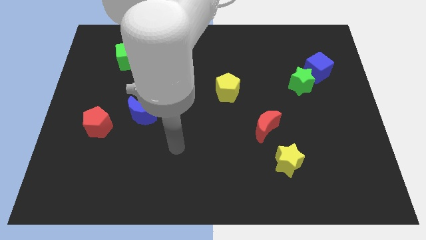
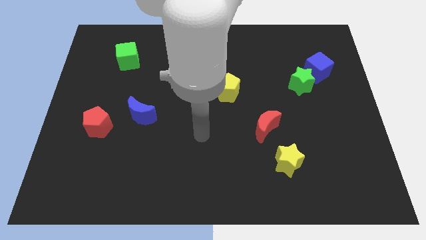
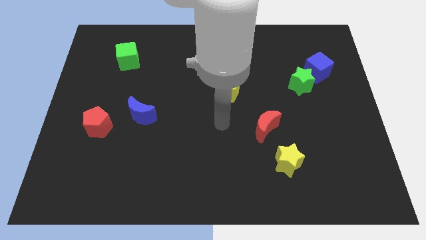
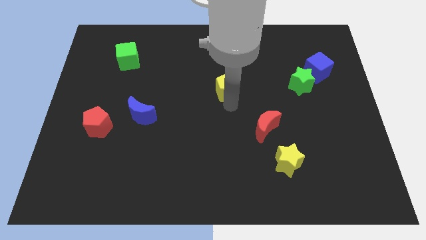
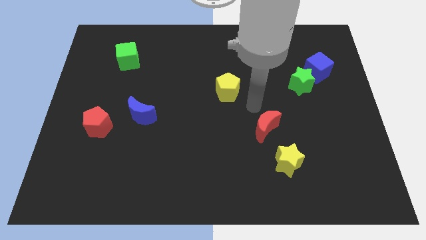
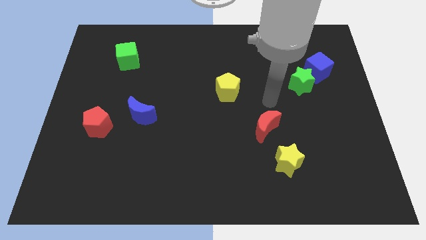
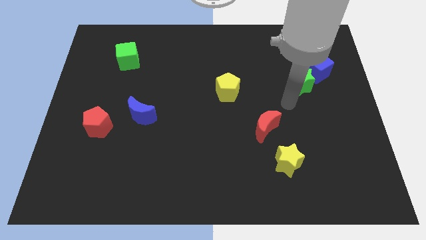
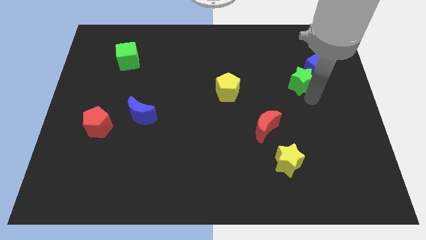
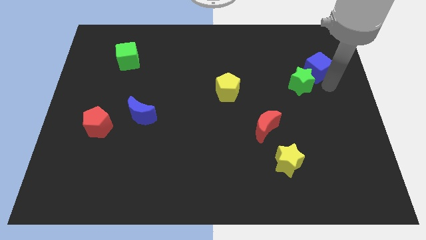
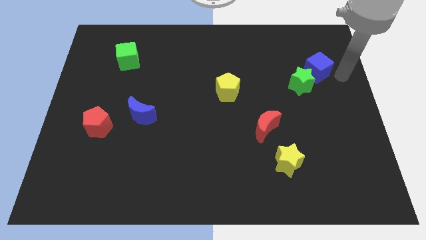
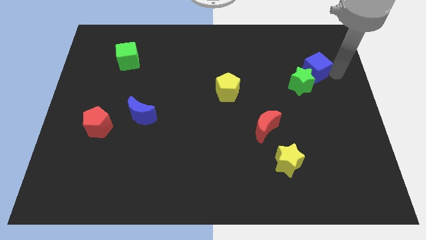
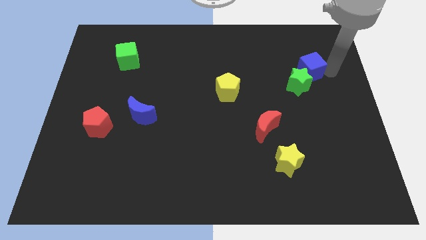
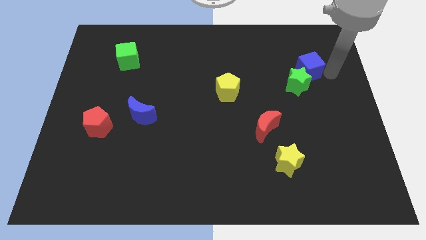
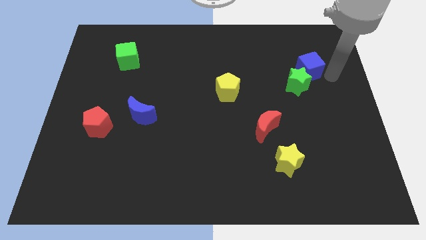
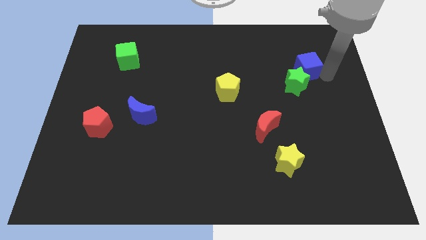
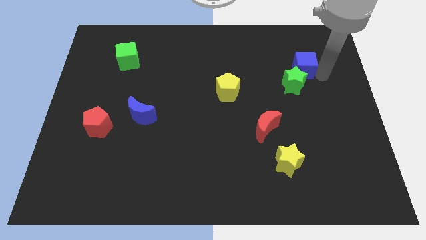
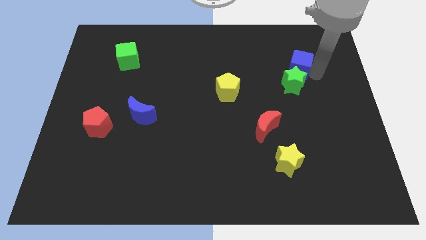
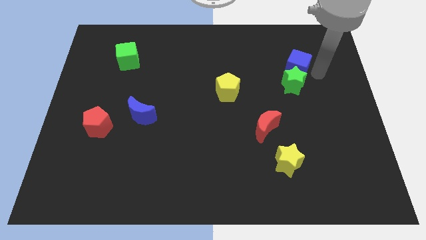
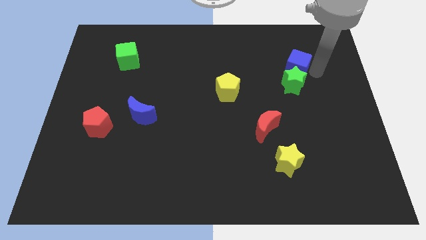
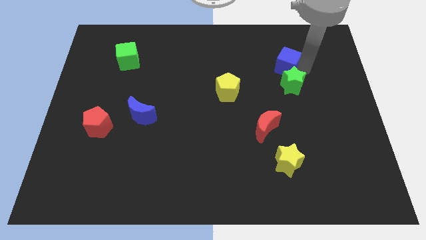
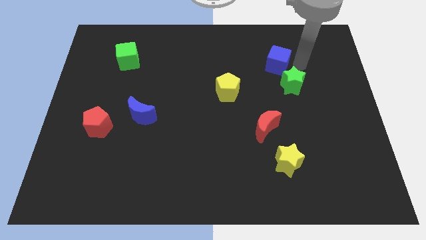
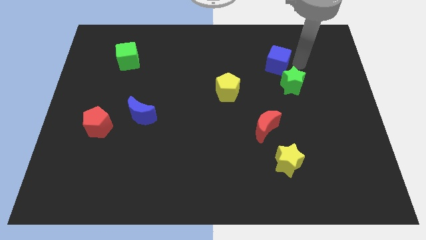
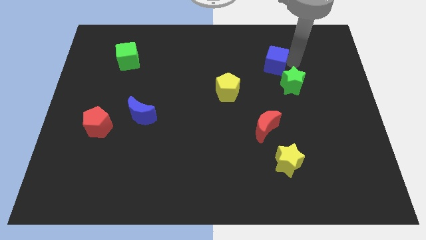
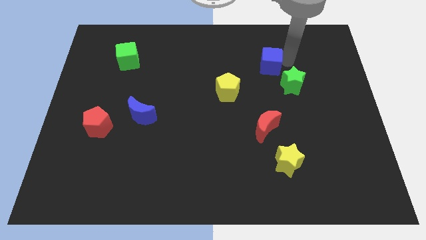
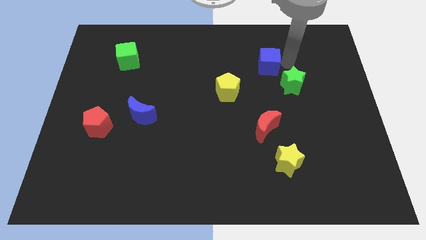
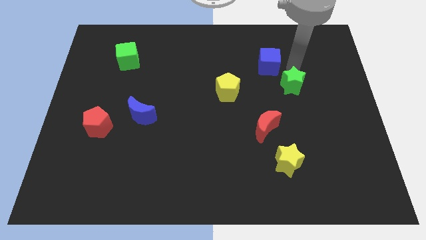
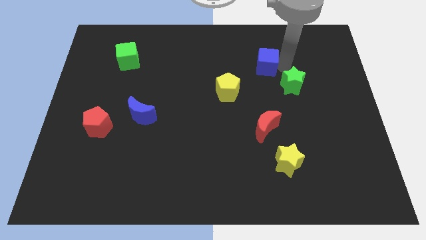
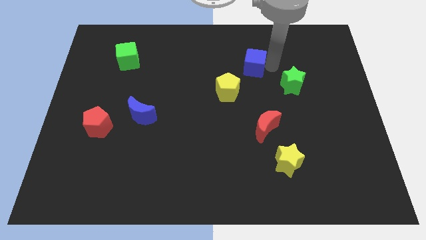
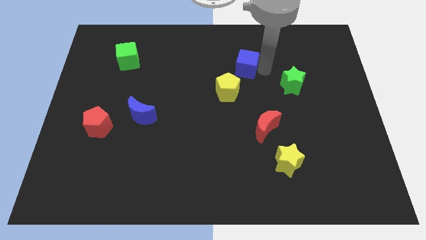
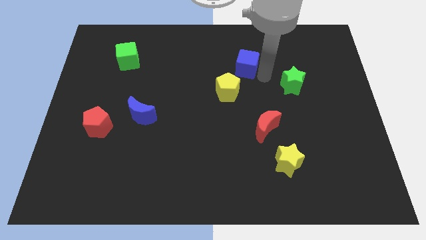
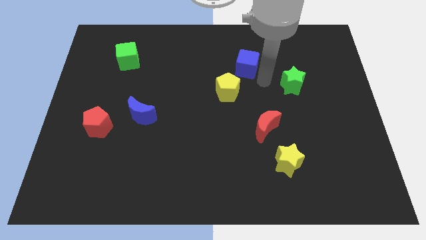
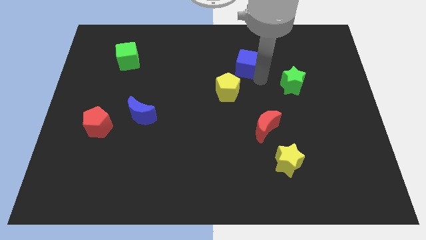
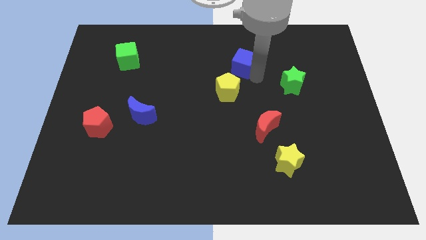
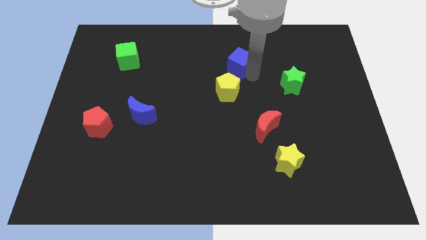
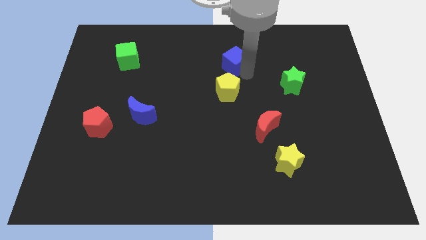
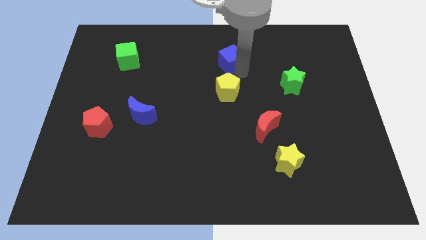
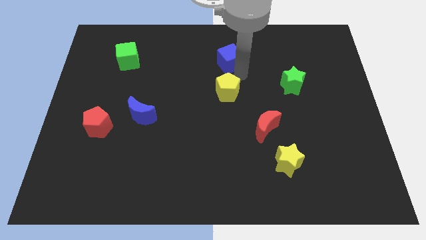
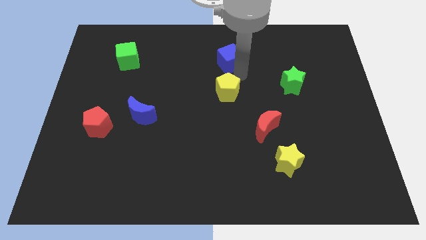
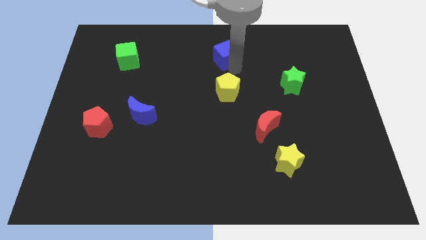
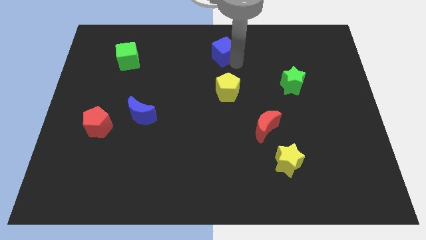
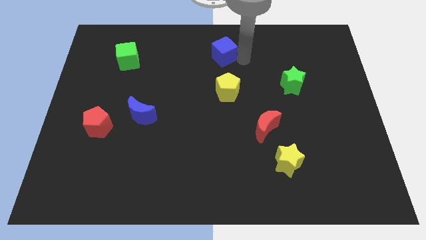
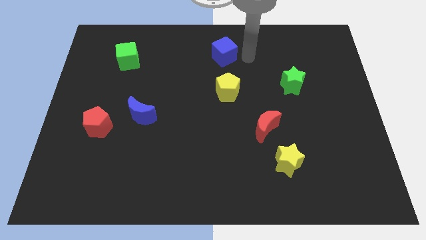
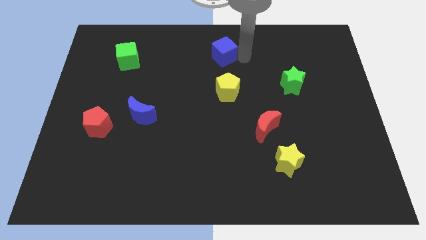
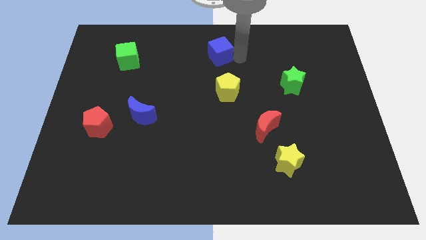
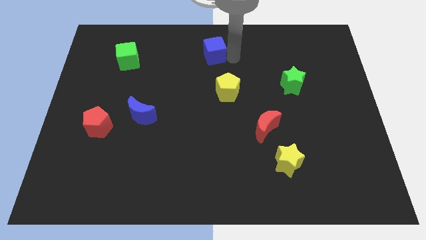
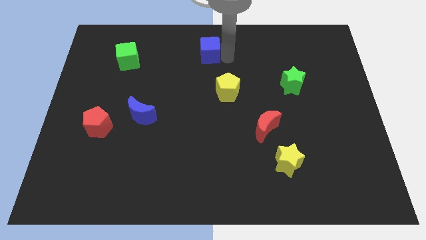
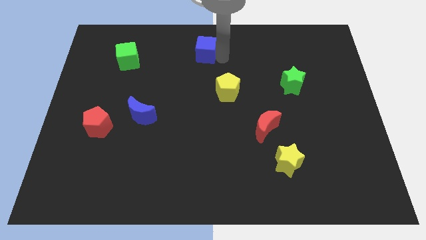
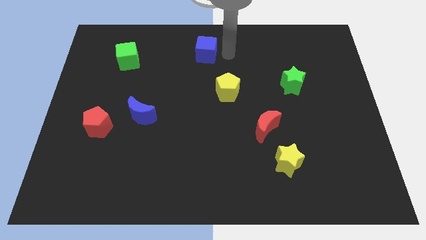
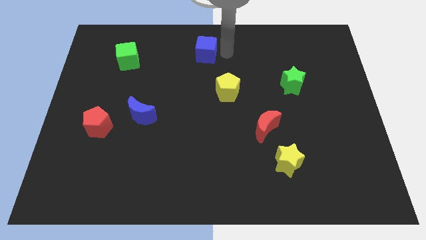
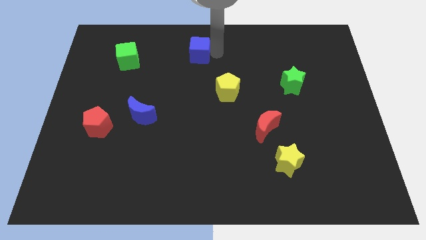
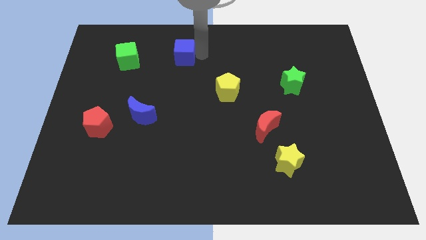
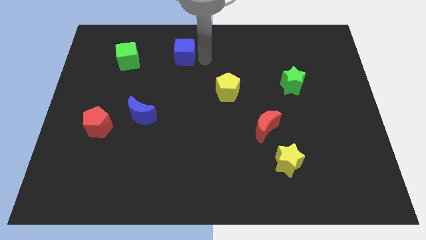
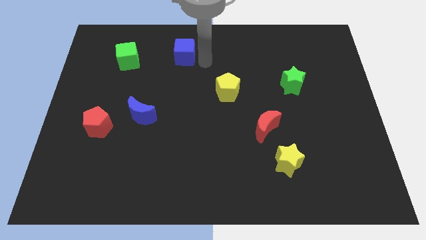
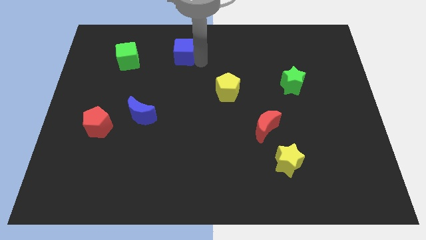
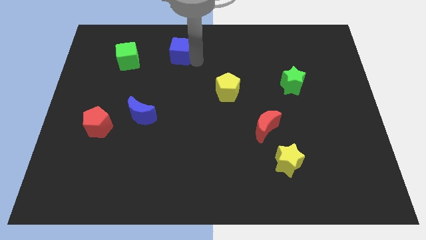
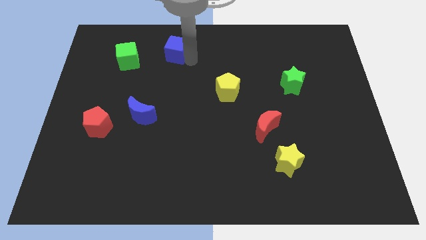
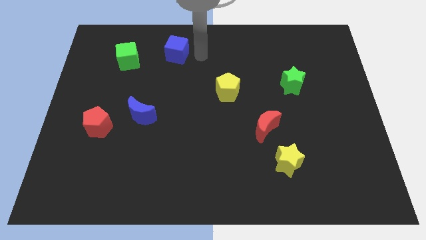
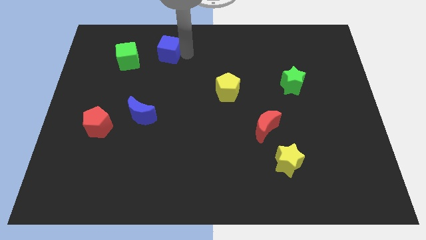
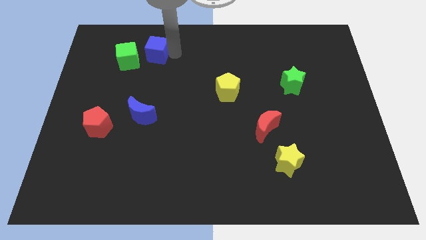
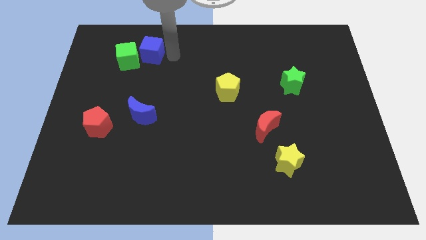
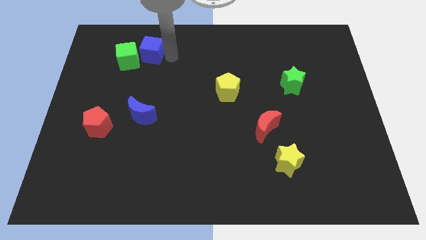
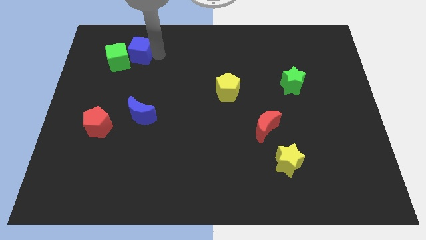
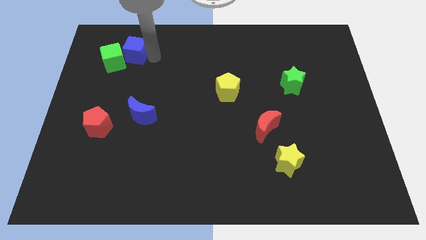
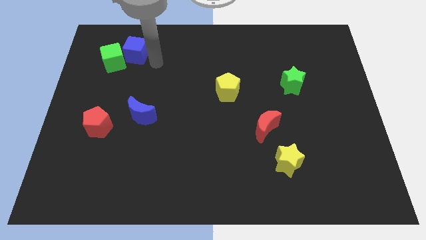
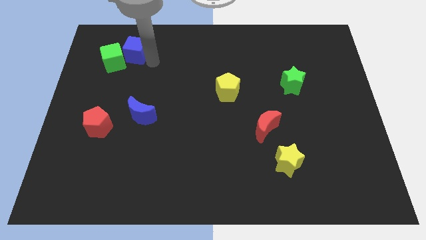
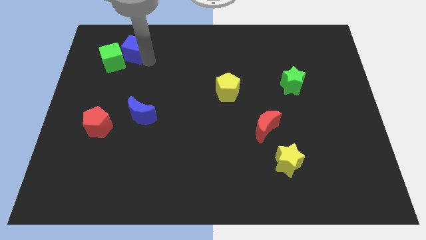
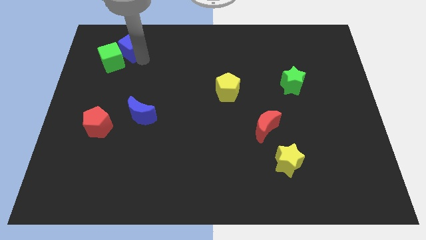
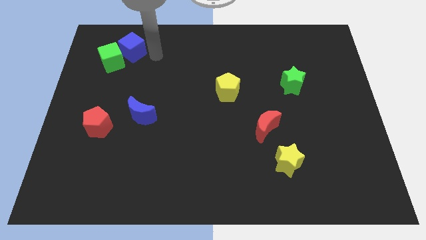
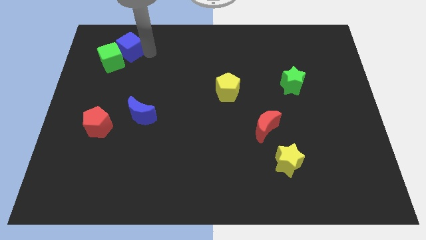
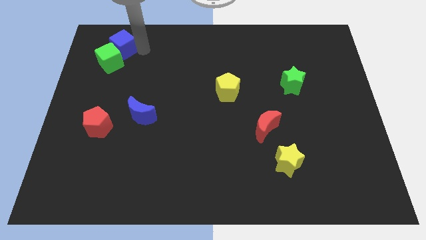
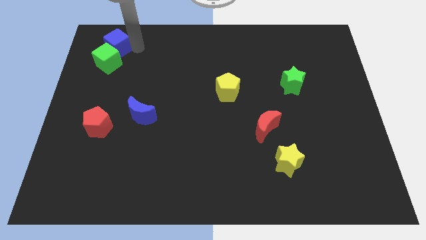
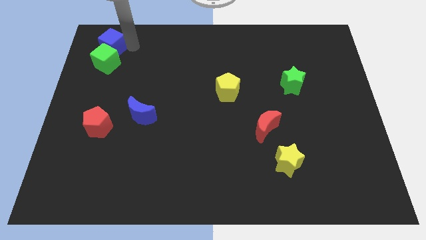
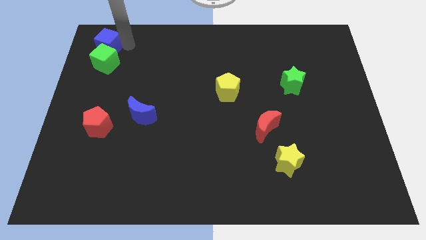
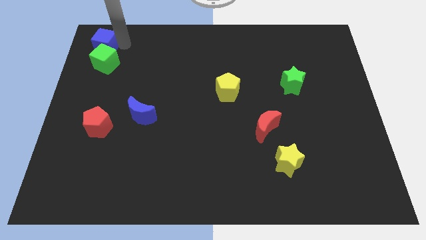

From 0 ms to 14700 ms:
move the blue cube to the top left
